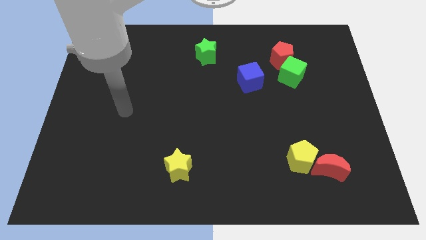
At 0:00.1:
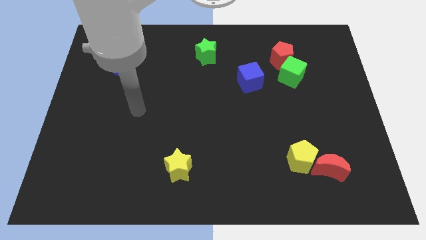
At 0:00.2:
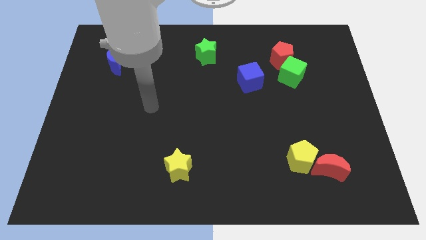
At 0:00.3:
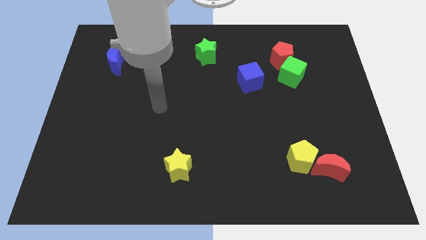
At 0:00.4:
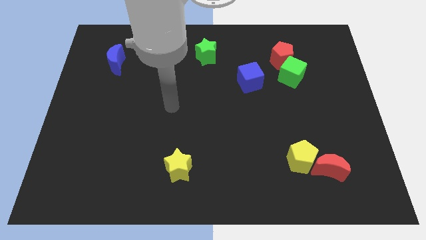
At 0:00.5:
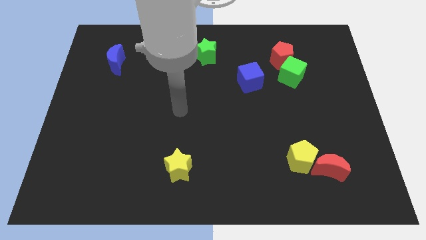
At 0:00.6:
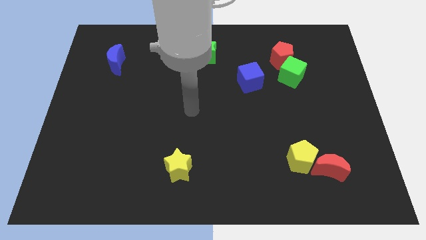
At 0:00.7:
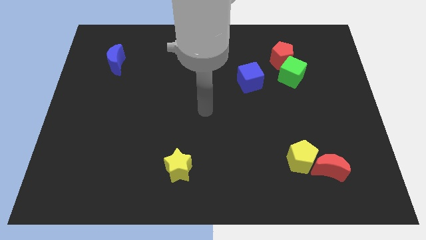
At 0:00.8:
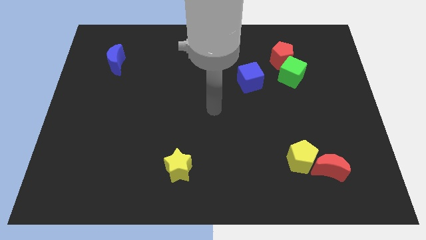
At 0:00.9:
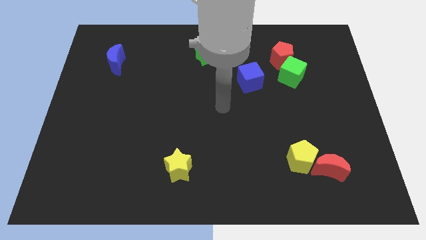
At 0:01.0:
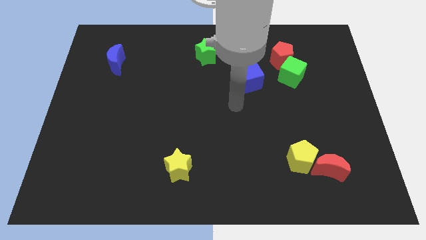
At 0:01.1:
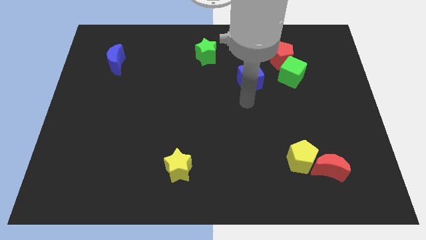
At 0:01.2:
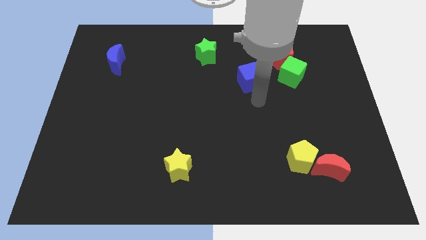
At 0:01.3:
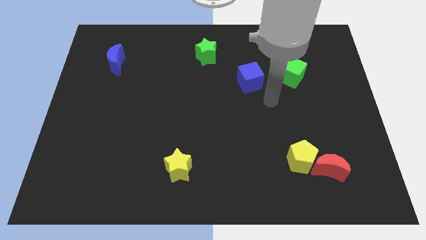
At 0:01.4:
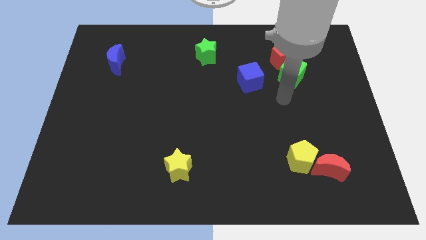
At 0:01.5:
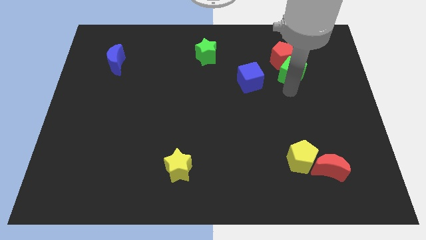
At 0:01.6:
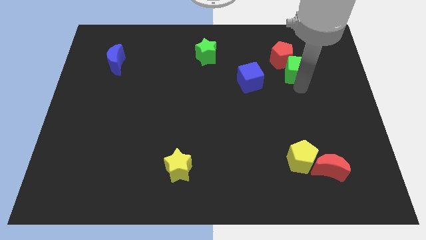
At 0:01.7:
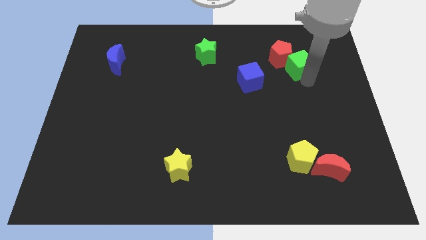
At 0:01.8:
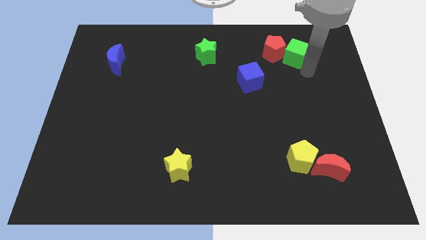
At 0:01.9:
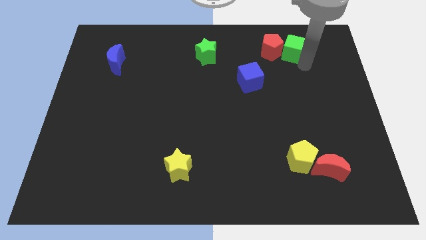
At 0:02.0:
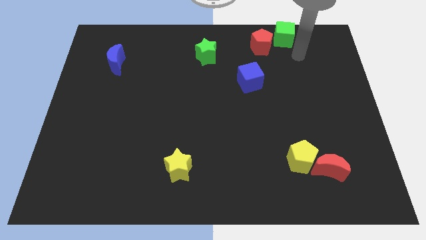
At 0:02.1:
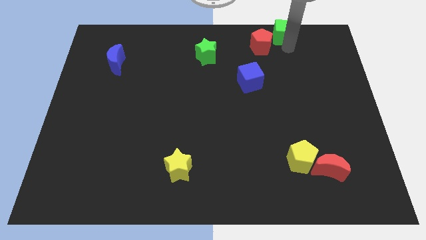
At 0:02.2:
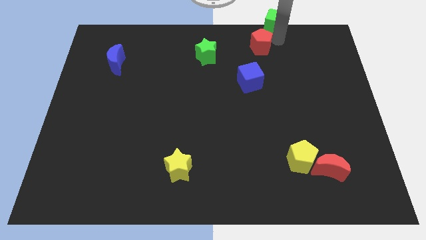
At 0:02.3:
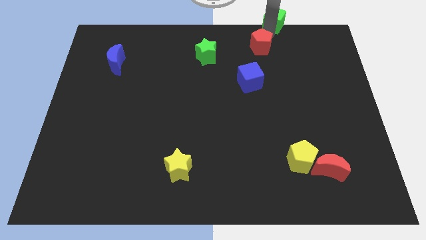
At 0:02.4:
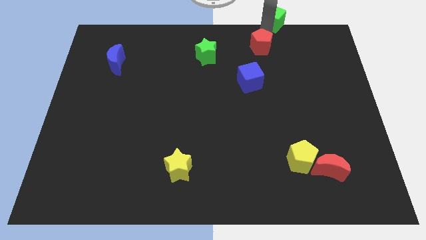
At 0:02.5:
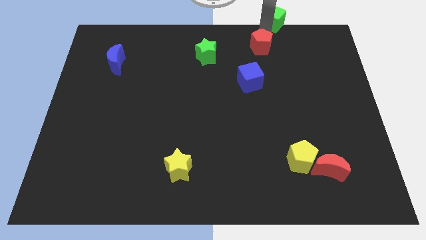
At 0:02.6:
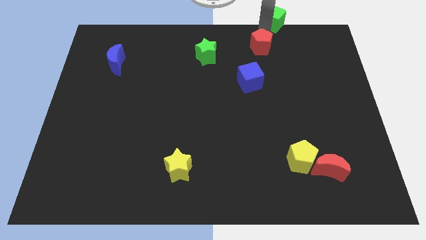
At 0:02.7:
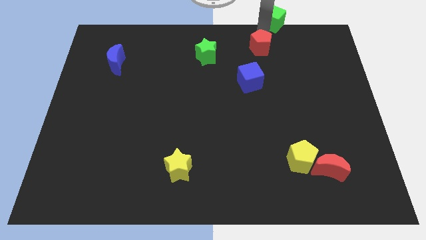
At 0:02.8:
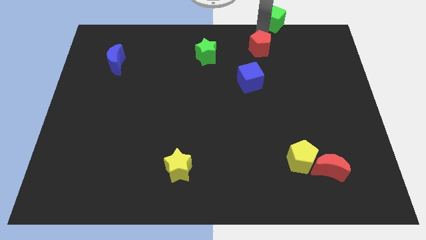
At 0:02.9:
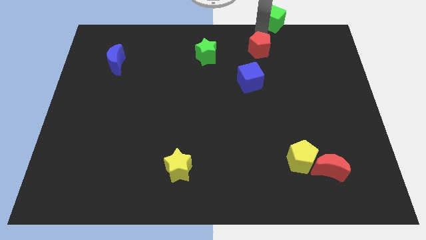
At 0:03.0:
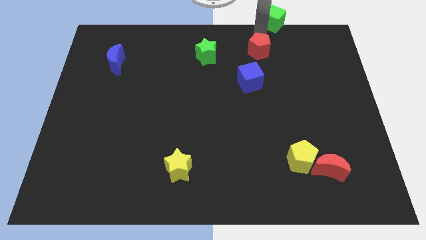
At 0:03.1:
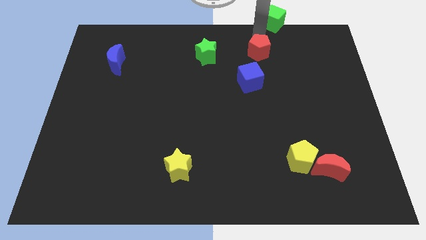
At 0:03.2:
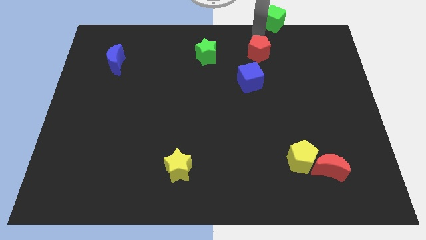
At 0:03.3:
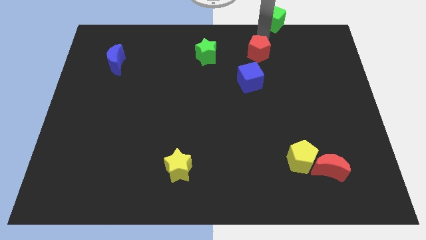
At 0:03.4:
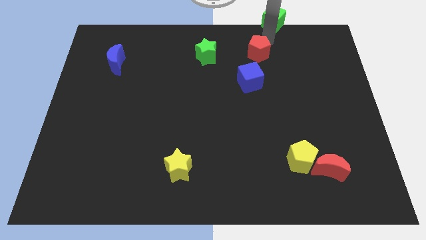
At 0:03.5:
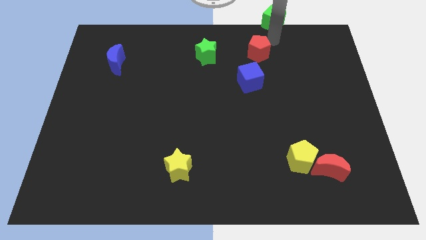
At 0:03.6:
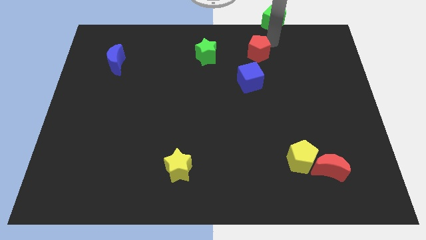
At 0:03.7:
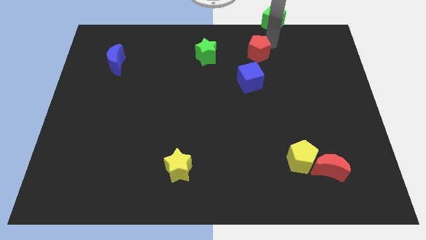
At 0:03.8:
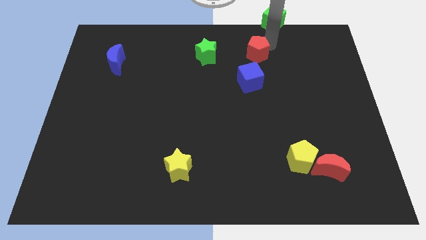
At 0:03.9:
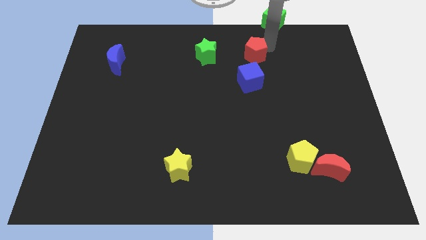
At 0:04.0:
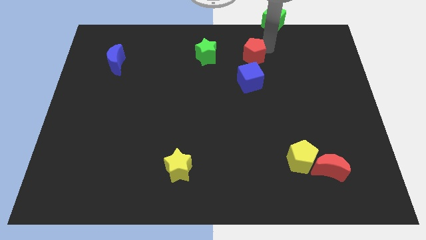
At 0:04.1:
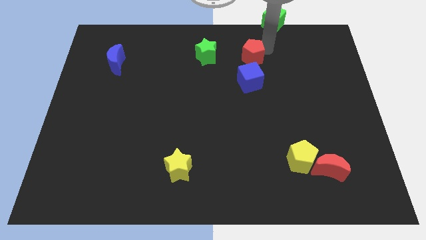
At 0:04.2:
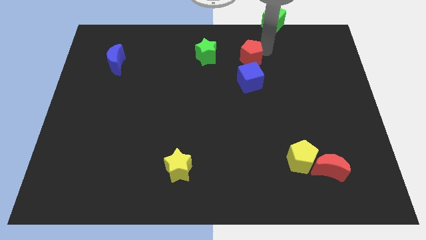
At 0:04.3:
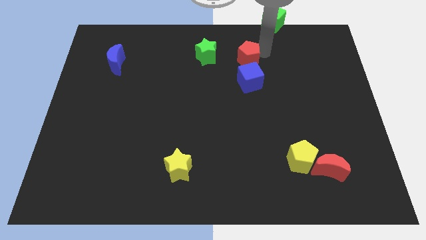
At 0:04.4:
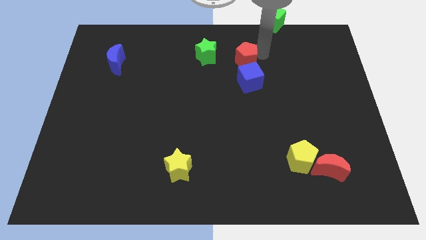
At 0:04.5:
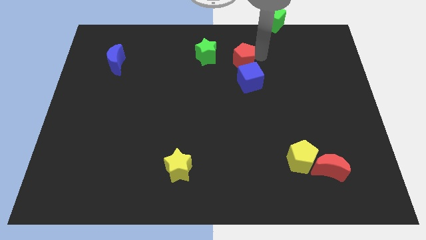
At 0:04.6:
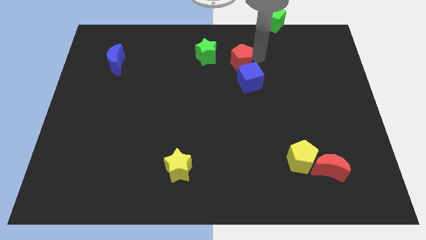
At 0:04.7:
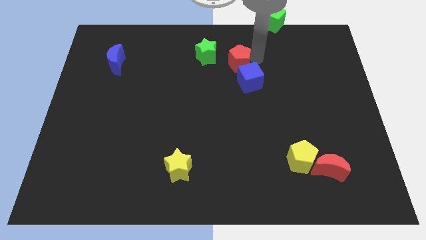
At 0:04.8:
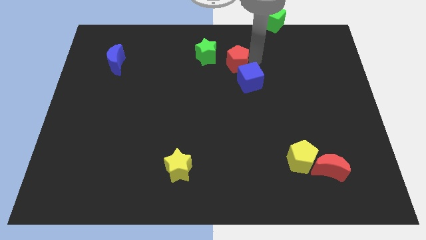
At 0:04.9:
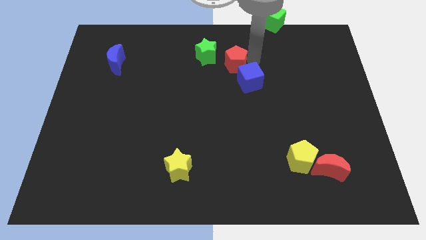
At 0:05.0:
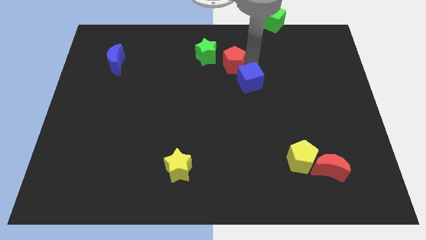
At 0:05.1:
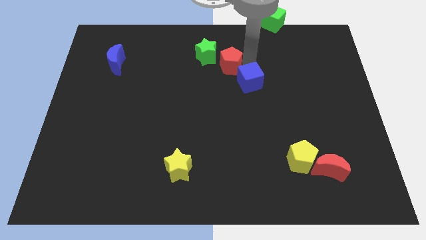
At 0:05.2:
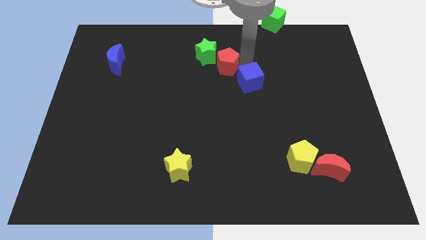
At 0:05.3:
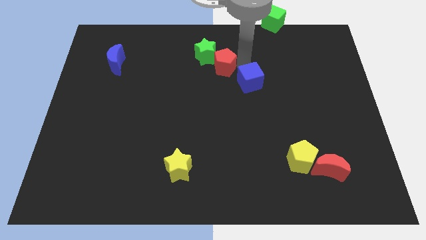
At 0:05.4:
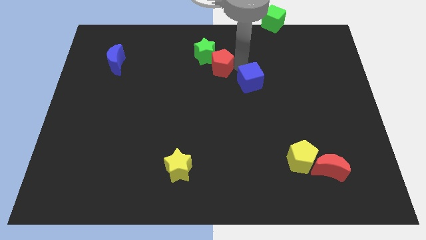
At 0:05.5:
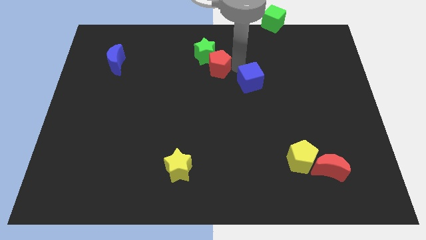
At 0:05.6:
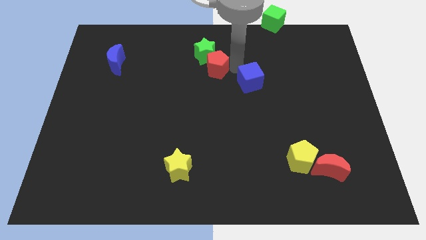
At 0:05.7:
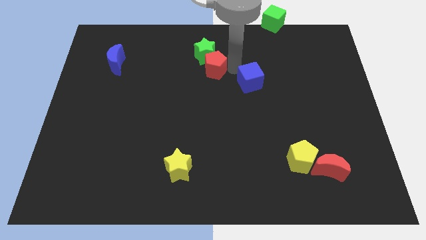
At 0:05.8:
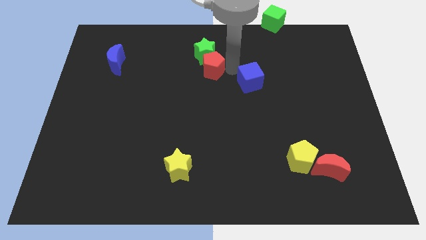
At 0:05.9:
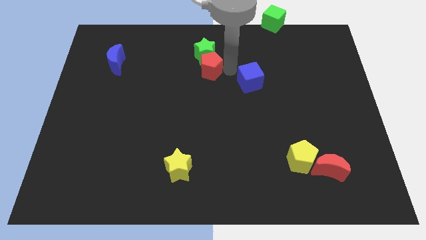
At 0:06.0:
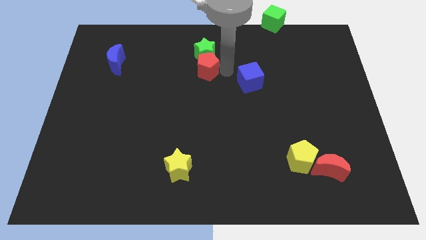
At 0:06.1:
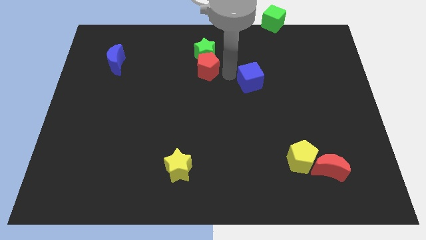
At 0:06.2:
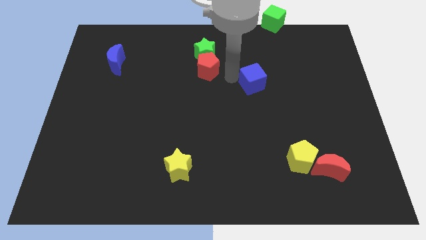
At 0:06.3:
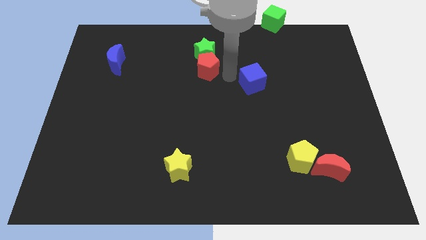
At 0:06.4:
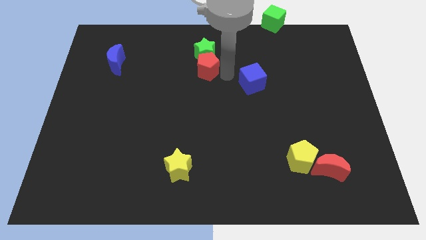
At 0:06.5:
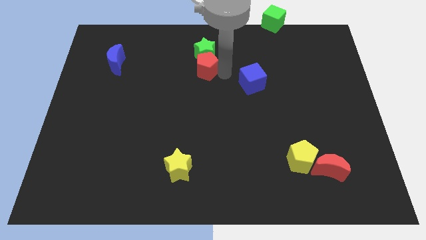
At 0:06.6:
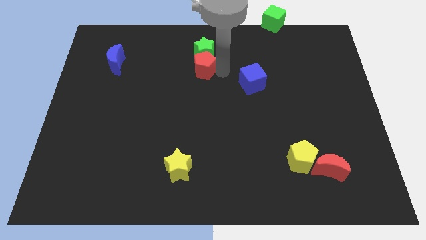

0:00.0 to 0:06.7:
move the red pentagon to the left

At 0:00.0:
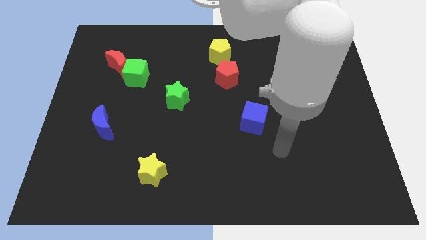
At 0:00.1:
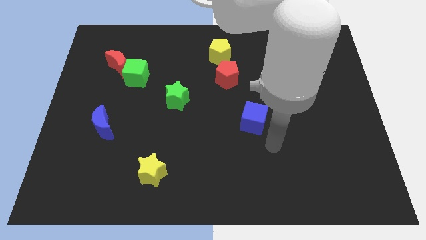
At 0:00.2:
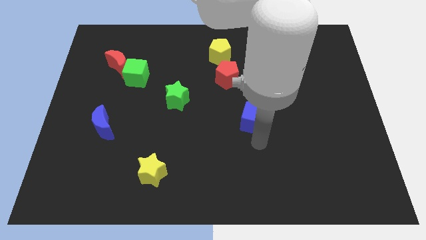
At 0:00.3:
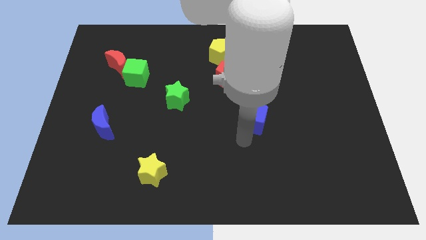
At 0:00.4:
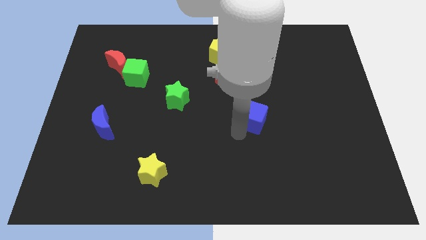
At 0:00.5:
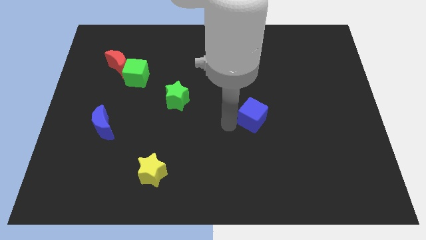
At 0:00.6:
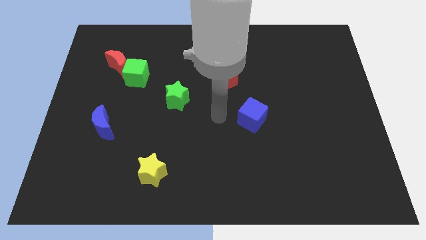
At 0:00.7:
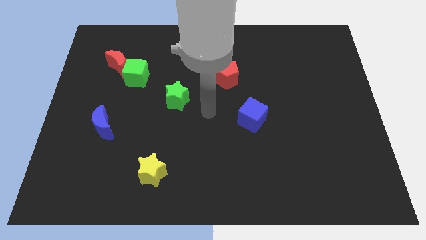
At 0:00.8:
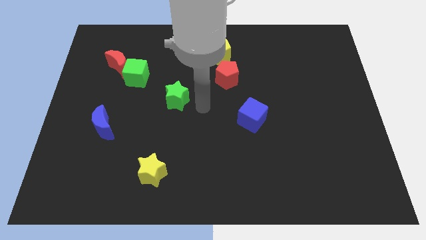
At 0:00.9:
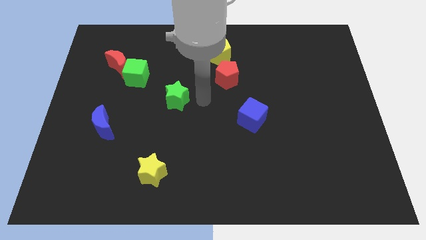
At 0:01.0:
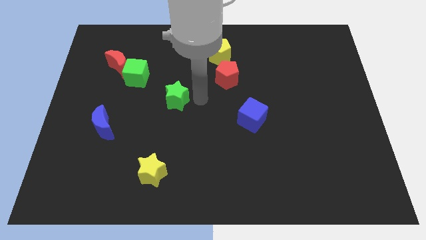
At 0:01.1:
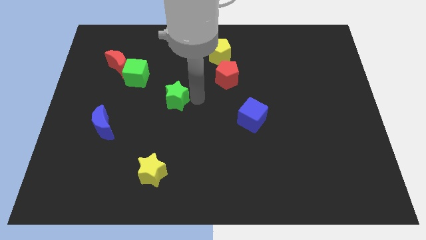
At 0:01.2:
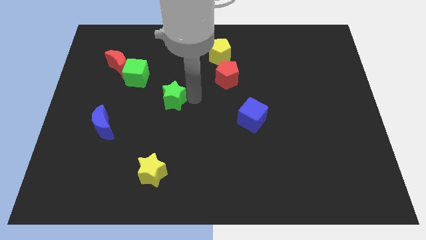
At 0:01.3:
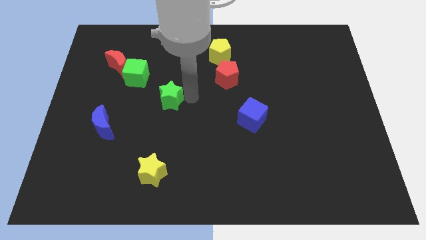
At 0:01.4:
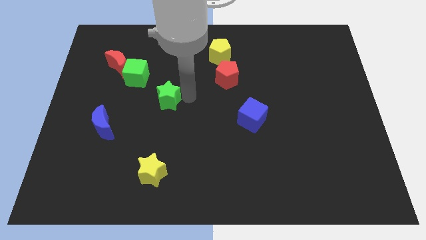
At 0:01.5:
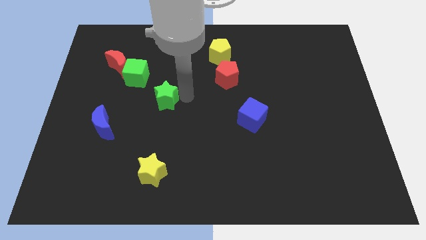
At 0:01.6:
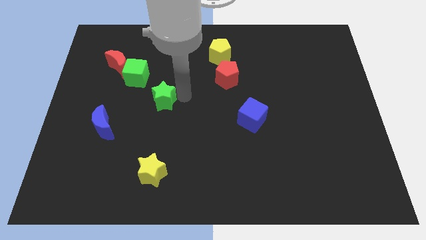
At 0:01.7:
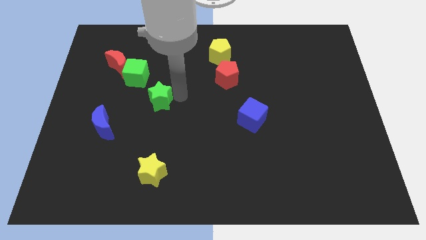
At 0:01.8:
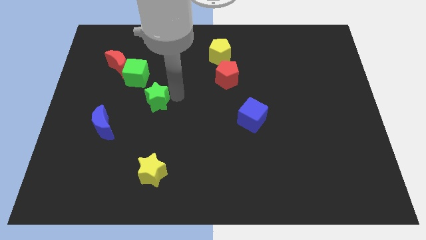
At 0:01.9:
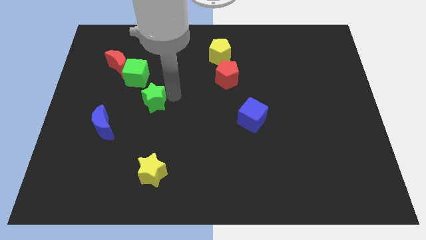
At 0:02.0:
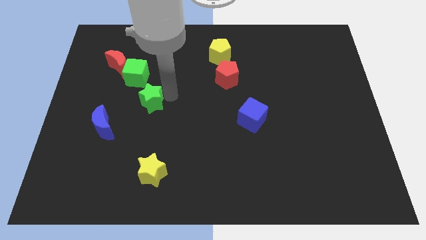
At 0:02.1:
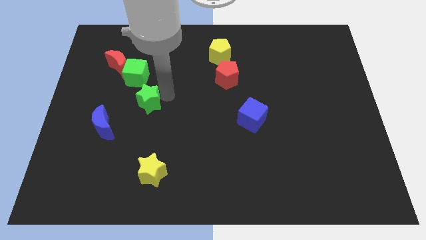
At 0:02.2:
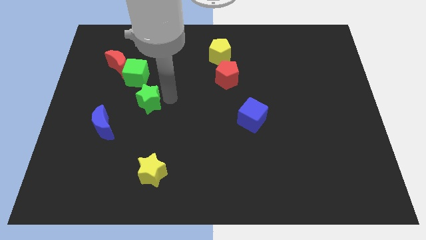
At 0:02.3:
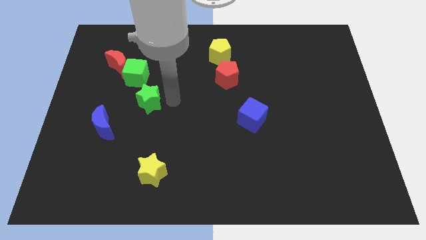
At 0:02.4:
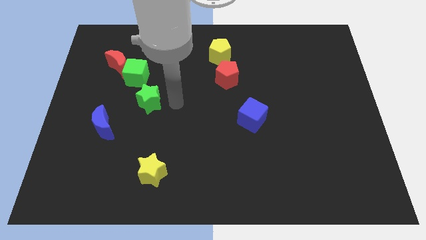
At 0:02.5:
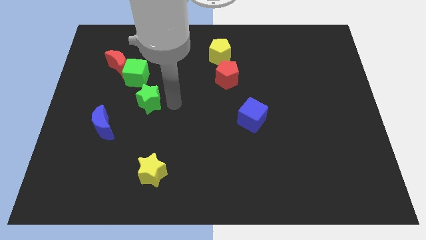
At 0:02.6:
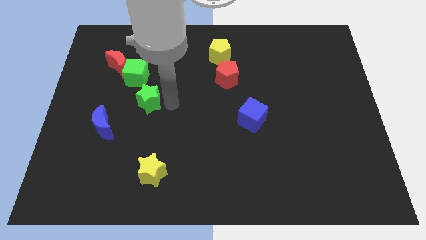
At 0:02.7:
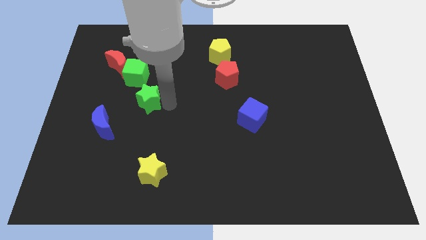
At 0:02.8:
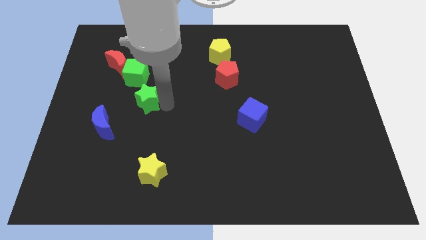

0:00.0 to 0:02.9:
slightly move the green star left
